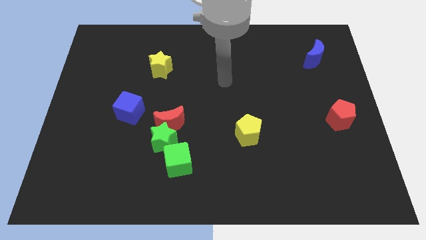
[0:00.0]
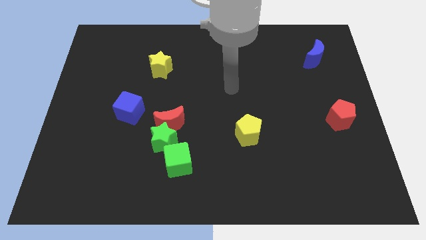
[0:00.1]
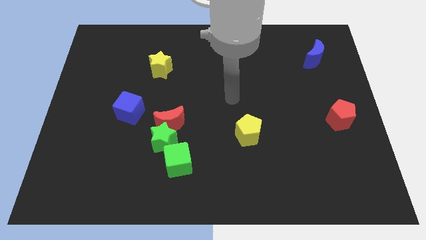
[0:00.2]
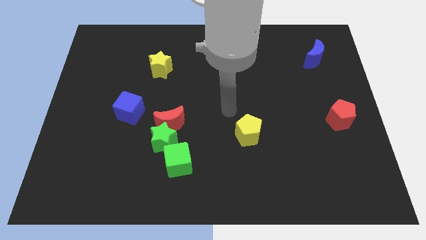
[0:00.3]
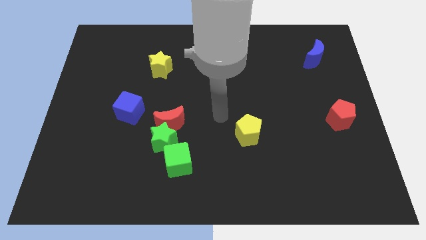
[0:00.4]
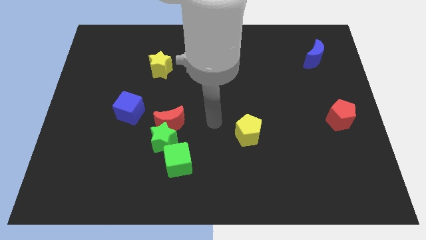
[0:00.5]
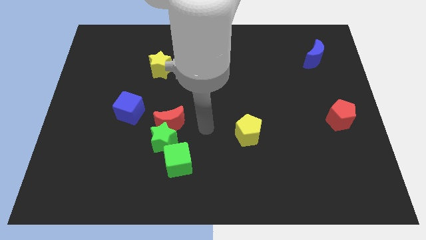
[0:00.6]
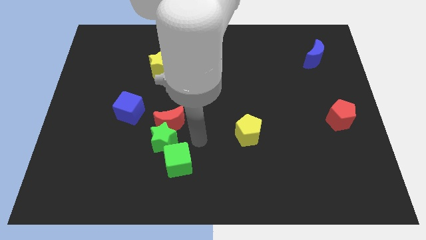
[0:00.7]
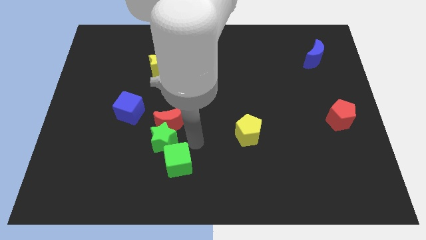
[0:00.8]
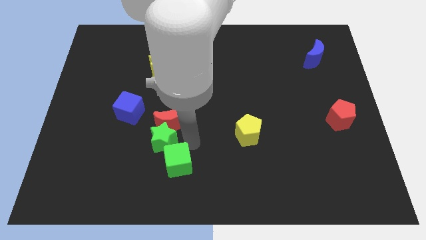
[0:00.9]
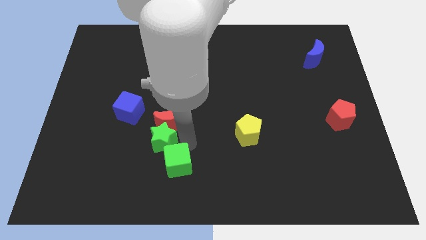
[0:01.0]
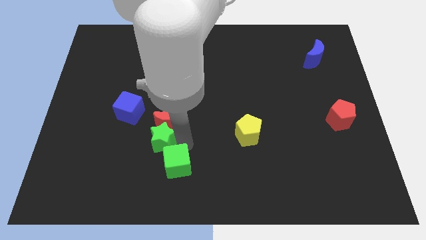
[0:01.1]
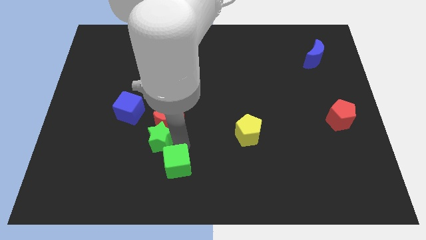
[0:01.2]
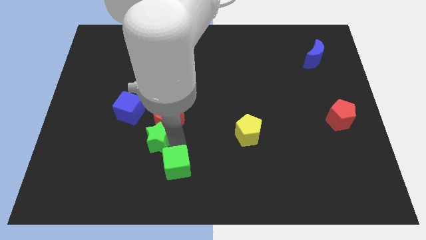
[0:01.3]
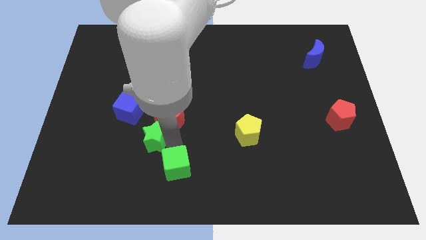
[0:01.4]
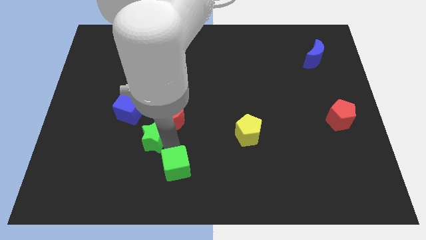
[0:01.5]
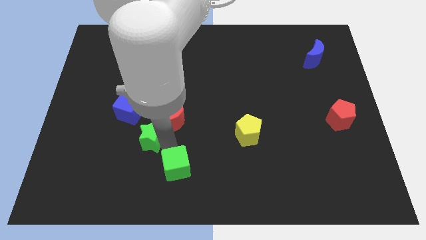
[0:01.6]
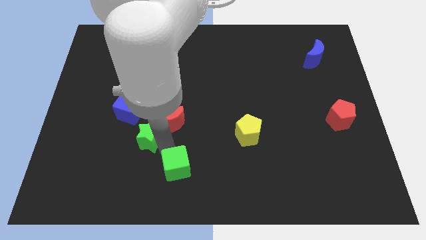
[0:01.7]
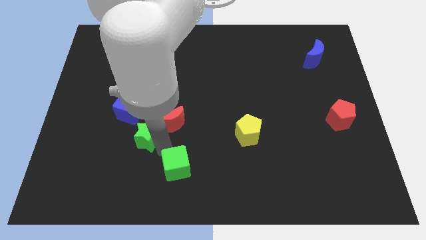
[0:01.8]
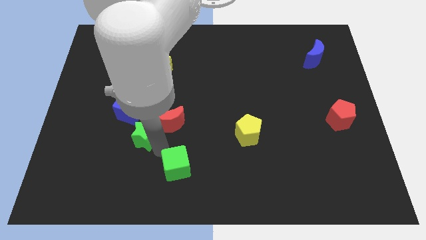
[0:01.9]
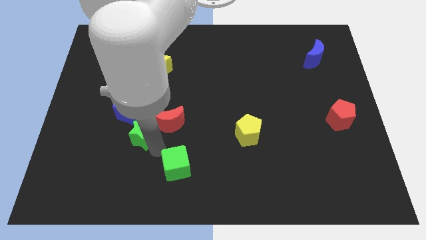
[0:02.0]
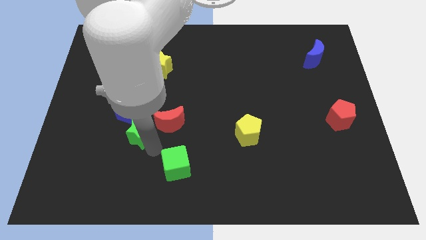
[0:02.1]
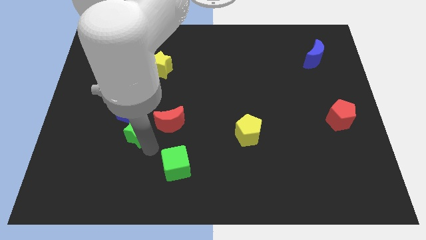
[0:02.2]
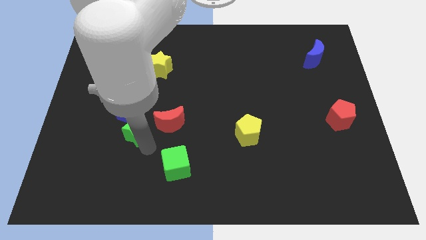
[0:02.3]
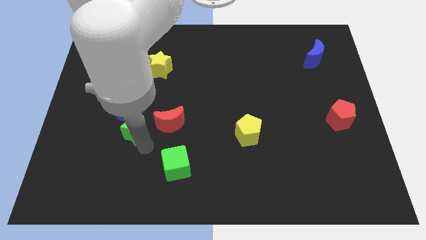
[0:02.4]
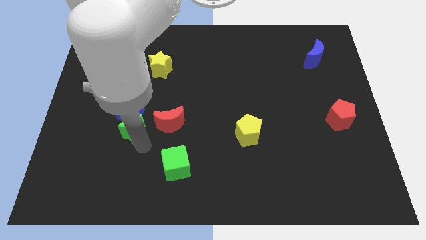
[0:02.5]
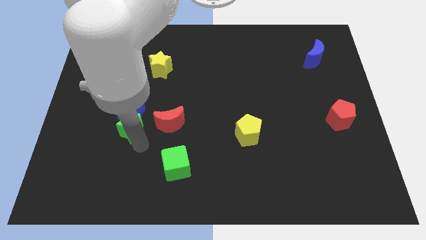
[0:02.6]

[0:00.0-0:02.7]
move the green star away from the red moon and green cube

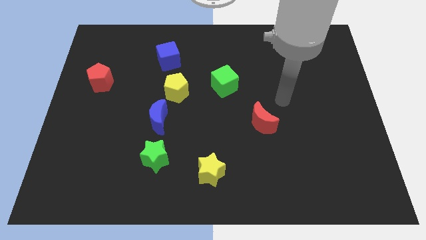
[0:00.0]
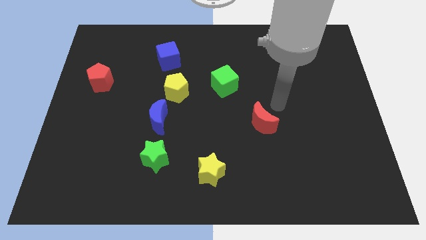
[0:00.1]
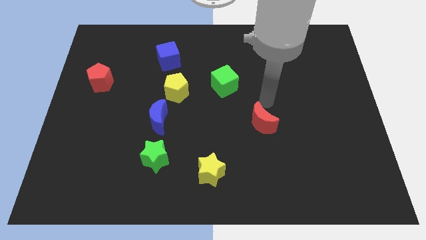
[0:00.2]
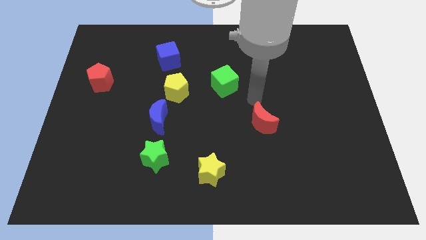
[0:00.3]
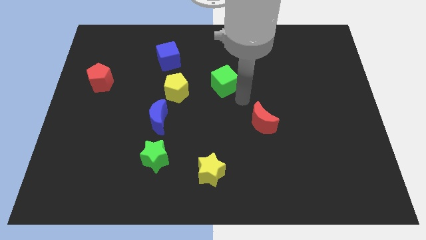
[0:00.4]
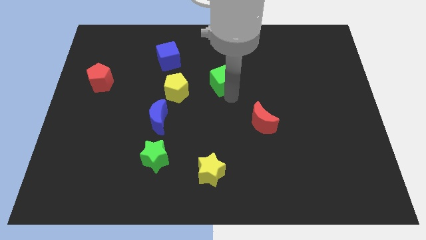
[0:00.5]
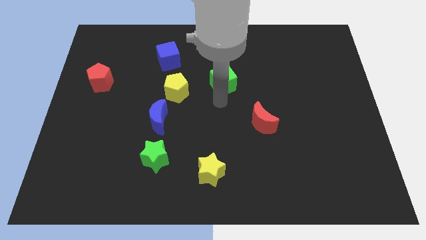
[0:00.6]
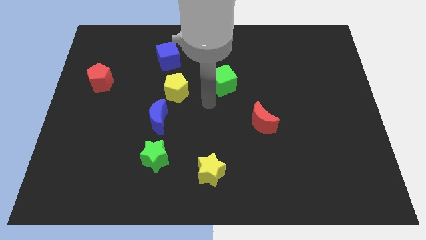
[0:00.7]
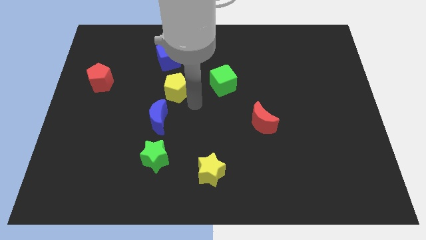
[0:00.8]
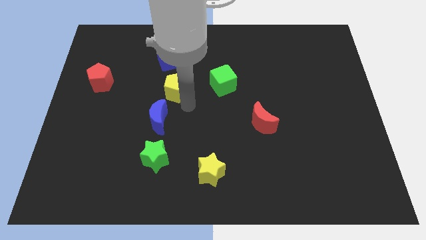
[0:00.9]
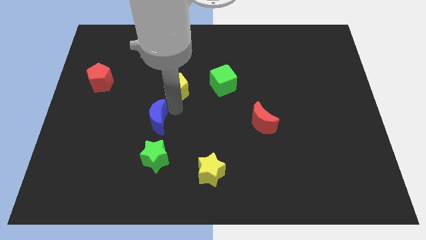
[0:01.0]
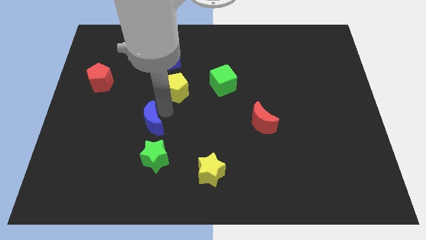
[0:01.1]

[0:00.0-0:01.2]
separate the yellow pentagon from the blue moon

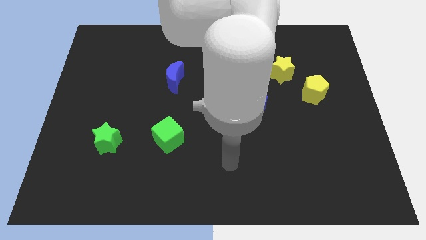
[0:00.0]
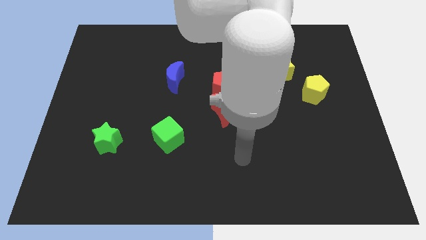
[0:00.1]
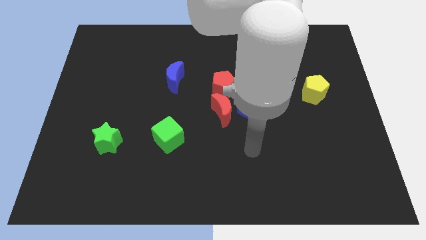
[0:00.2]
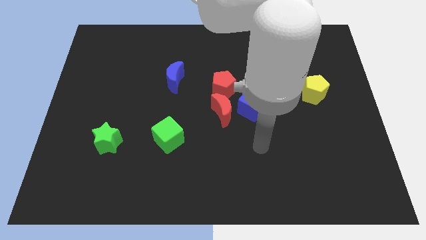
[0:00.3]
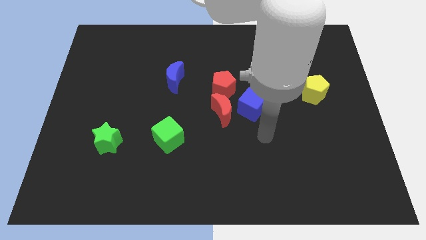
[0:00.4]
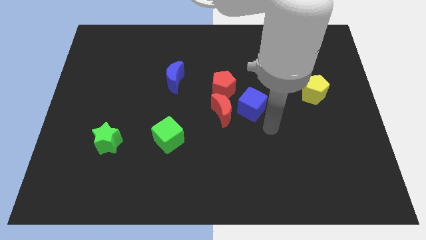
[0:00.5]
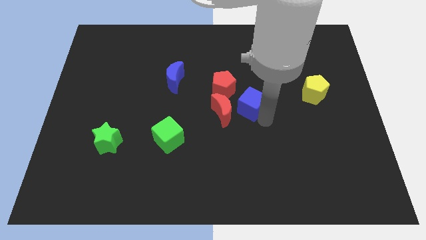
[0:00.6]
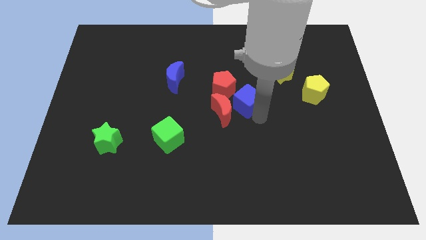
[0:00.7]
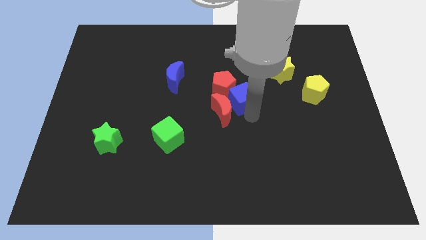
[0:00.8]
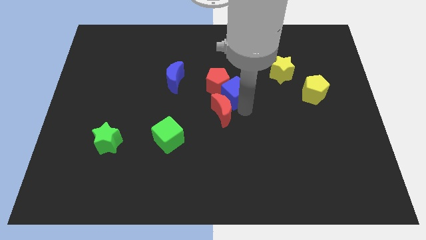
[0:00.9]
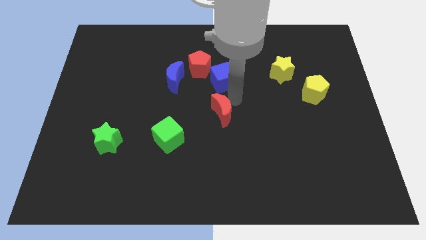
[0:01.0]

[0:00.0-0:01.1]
separate the red moon from the blue cube and red pentagon

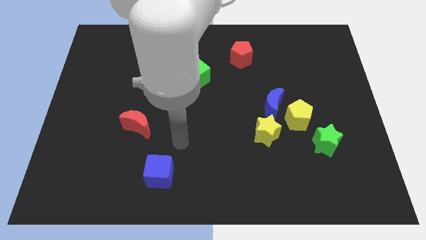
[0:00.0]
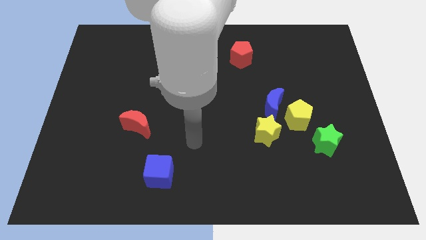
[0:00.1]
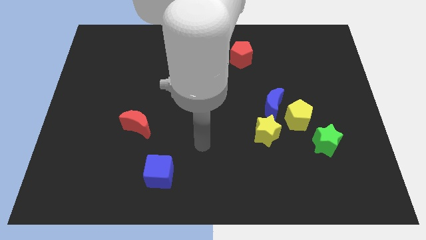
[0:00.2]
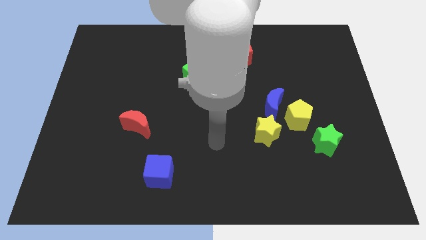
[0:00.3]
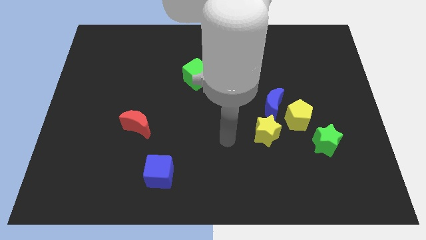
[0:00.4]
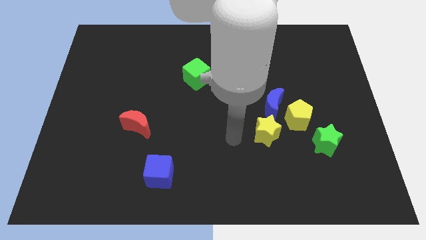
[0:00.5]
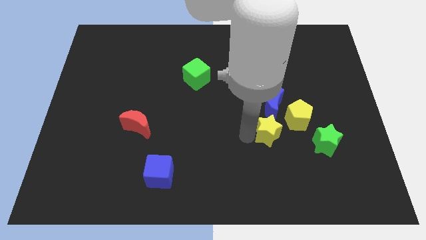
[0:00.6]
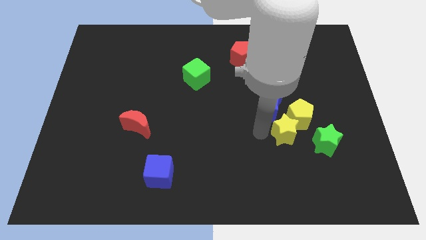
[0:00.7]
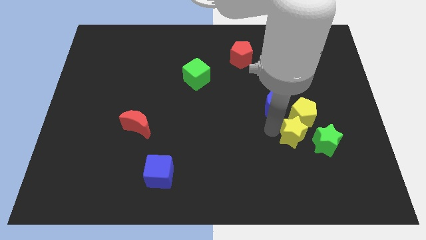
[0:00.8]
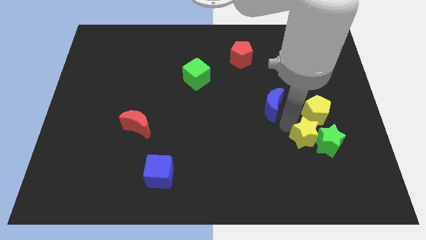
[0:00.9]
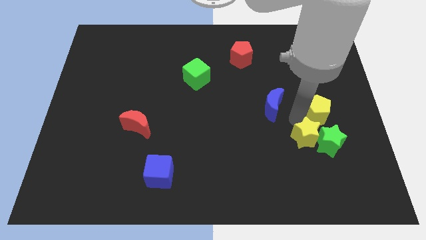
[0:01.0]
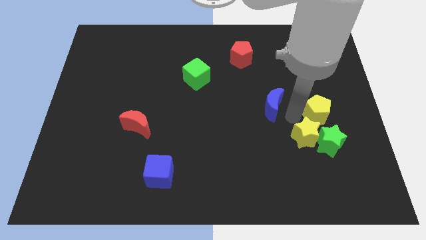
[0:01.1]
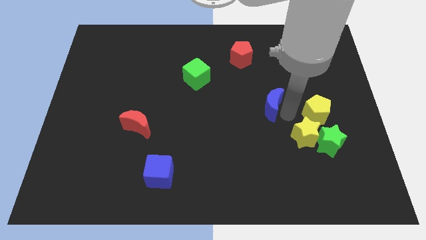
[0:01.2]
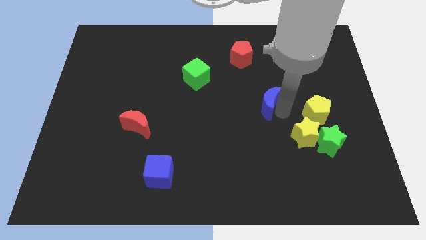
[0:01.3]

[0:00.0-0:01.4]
separate the blue moon from the yellow pentagon and yellow star

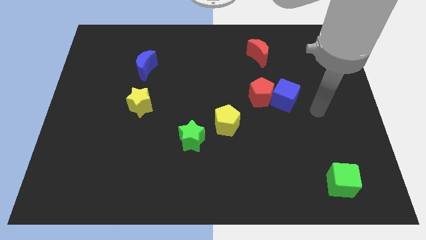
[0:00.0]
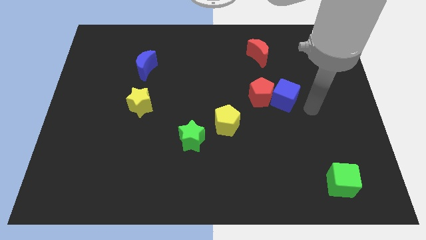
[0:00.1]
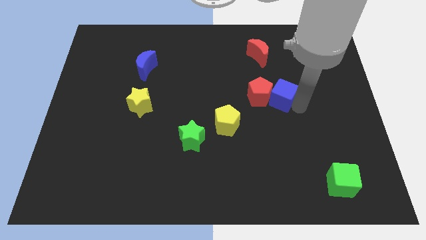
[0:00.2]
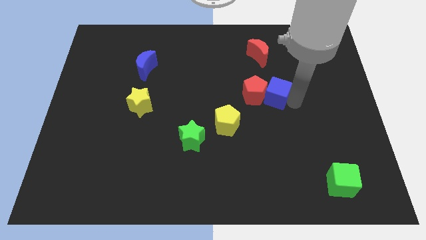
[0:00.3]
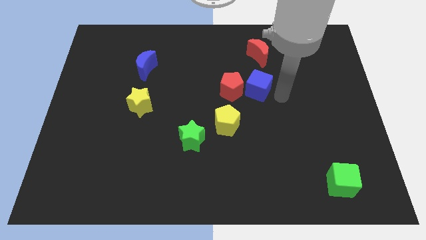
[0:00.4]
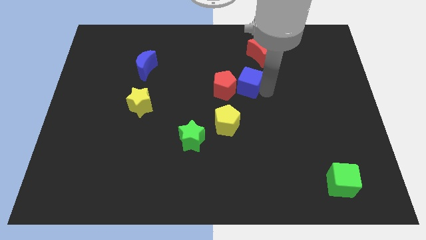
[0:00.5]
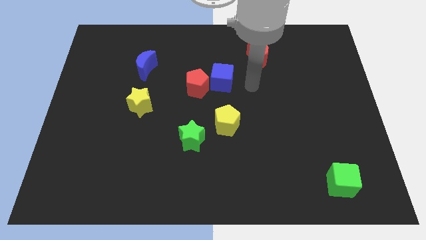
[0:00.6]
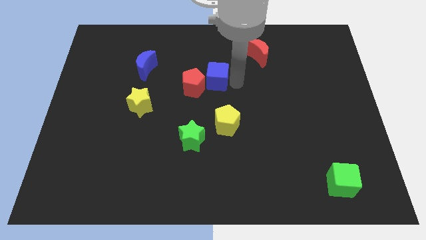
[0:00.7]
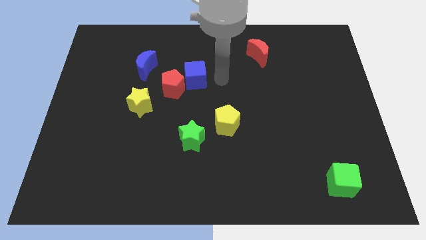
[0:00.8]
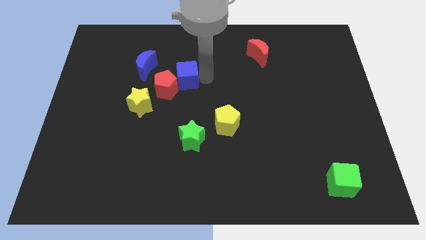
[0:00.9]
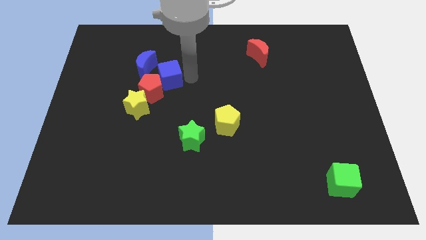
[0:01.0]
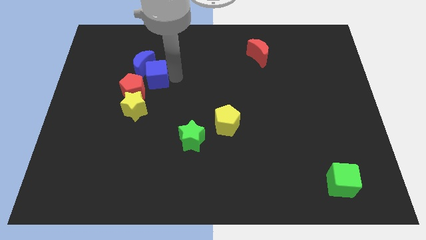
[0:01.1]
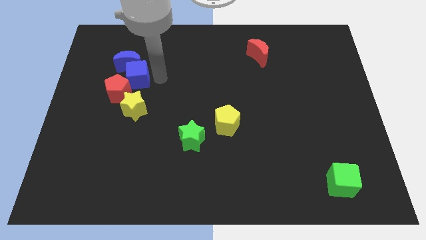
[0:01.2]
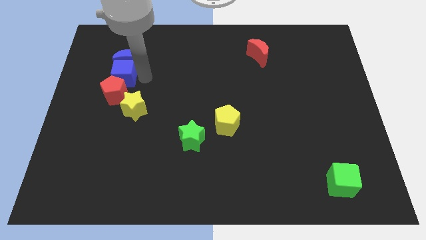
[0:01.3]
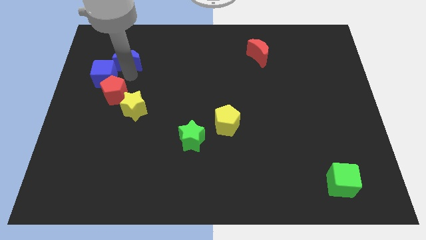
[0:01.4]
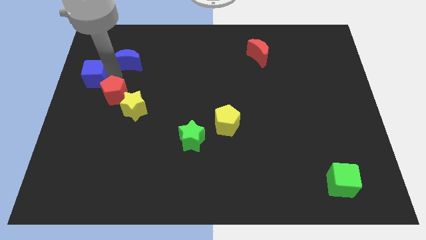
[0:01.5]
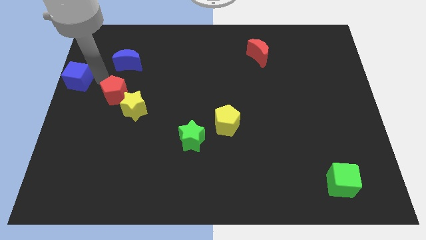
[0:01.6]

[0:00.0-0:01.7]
separate the red pentagon from the blue cube

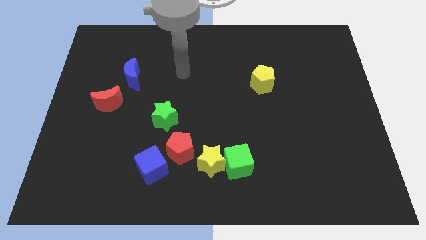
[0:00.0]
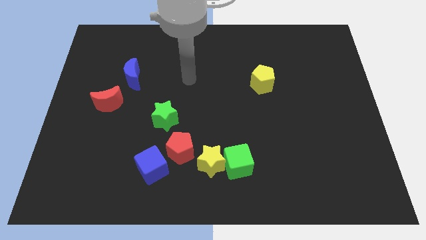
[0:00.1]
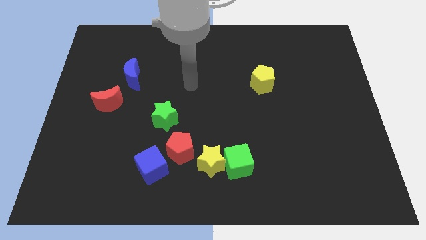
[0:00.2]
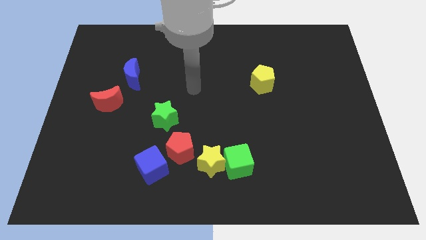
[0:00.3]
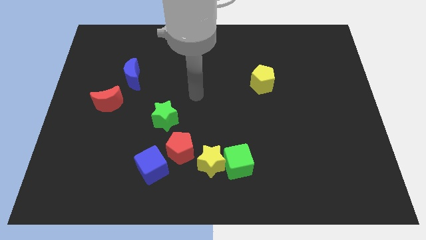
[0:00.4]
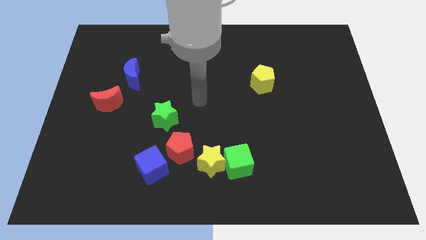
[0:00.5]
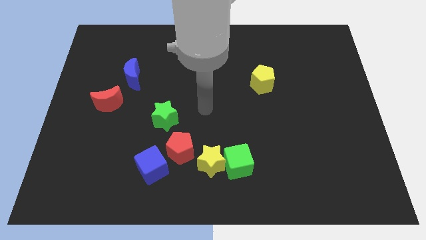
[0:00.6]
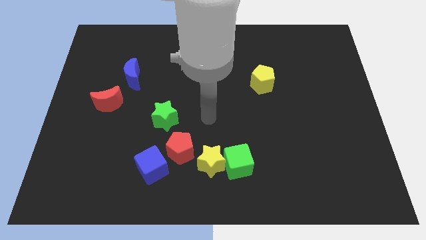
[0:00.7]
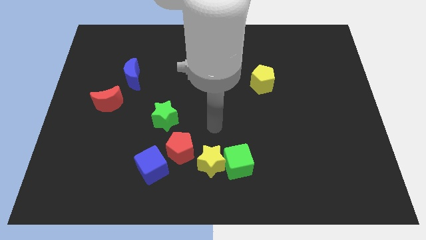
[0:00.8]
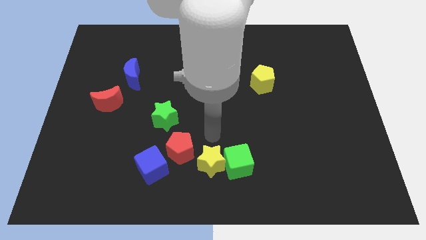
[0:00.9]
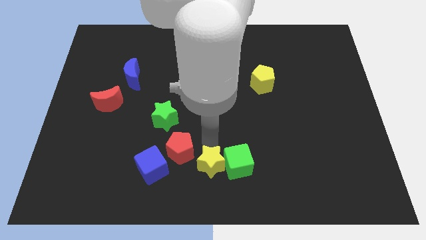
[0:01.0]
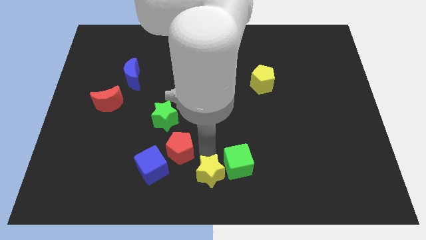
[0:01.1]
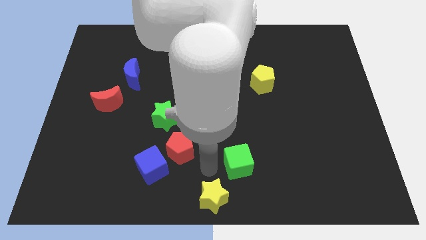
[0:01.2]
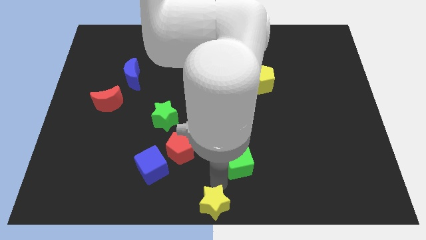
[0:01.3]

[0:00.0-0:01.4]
pull the green cube apart from the yellow star

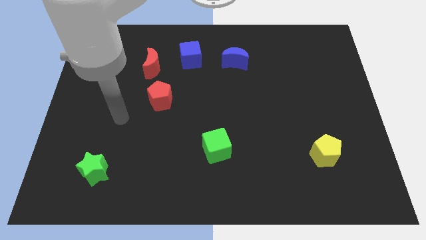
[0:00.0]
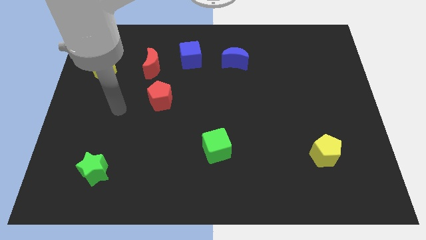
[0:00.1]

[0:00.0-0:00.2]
separate the red moon from the blue cube
